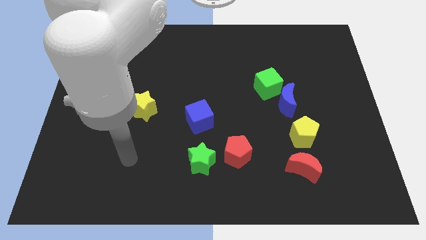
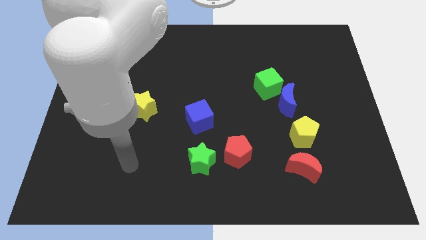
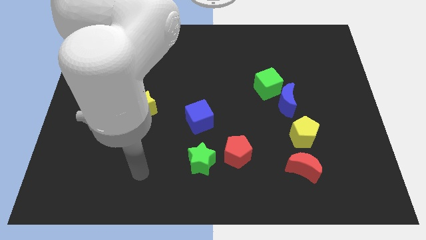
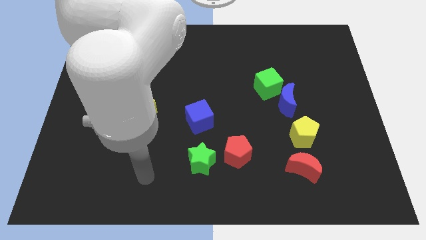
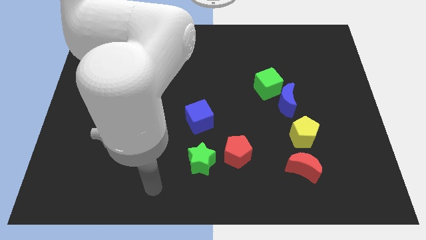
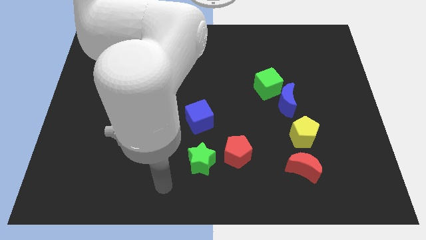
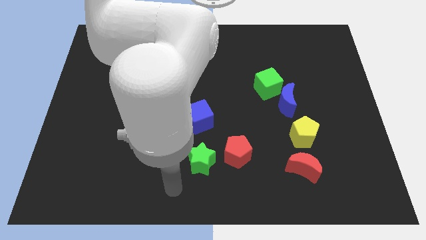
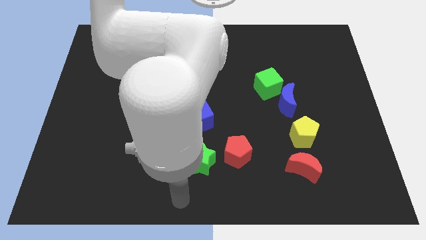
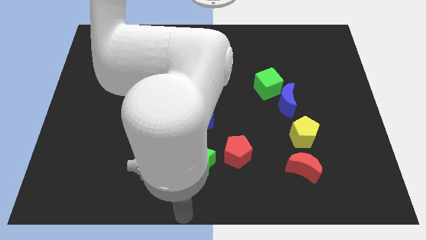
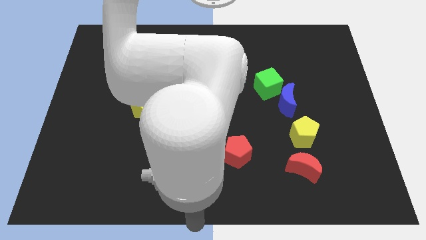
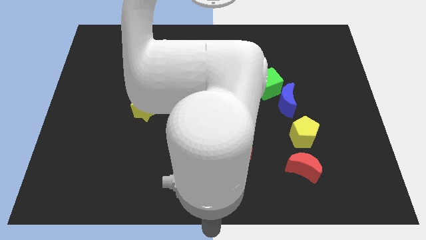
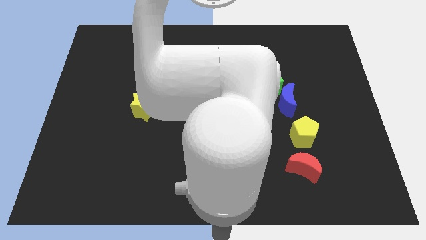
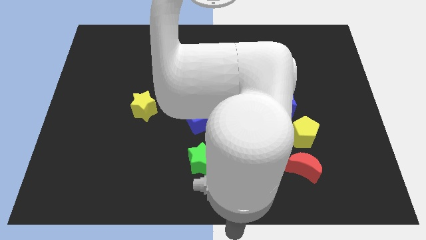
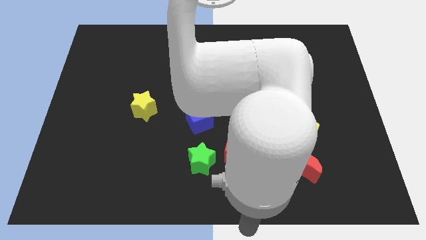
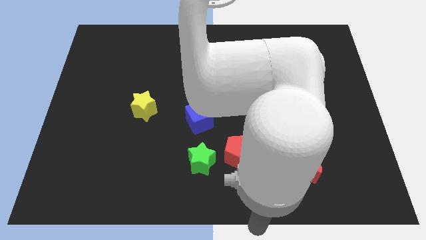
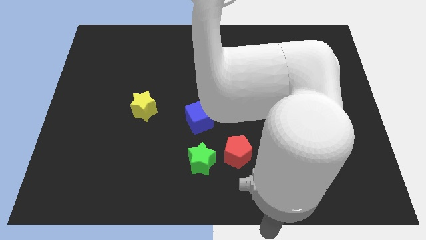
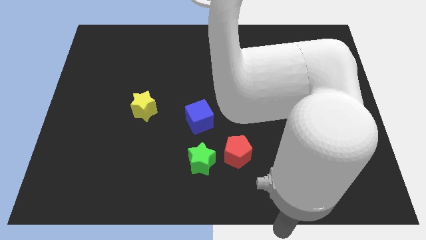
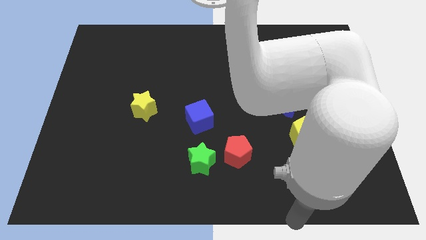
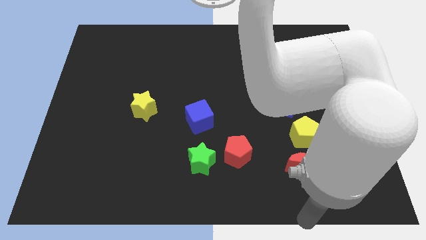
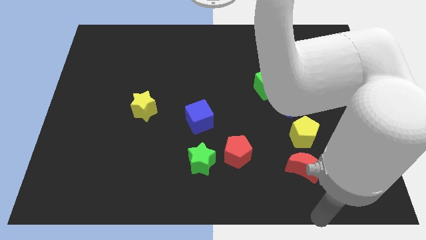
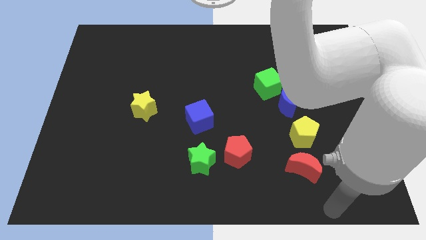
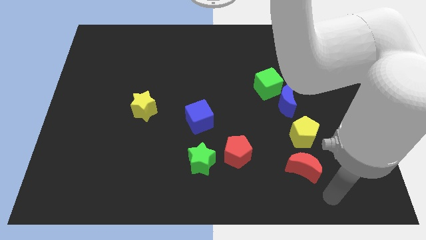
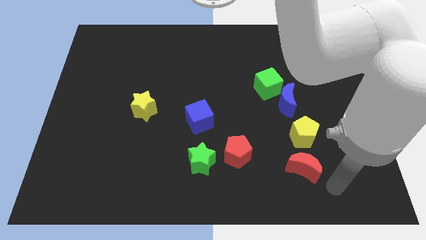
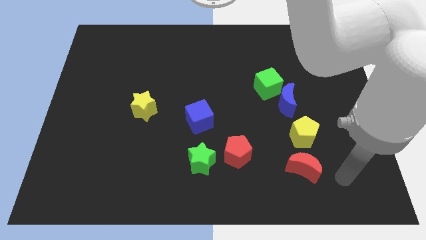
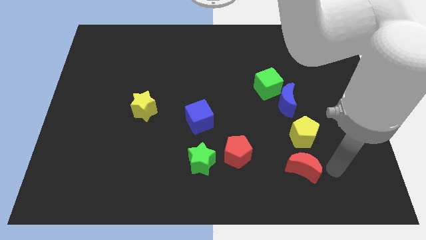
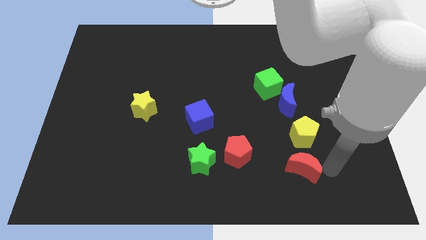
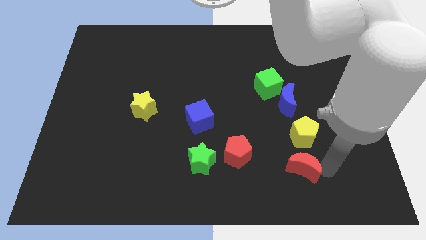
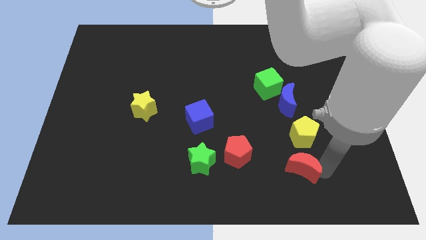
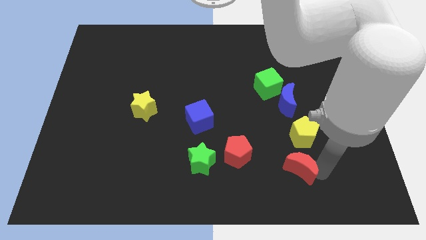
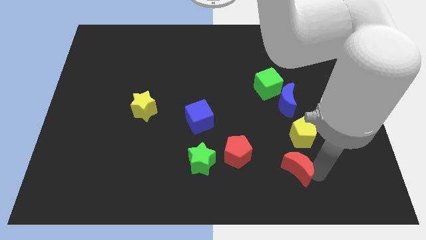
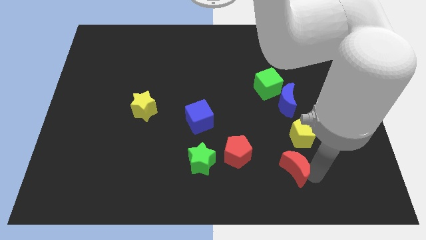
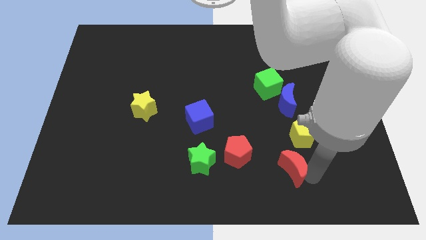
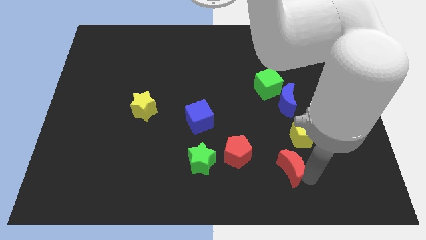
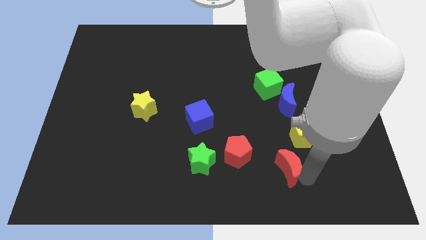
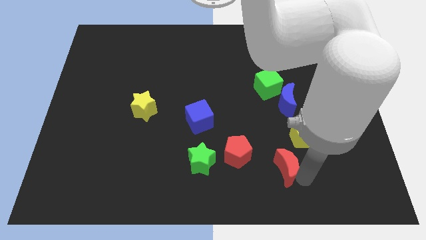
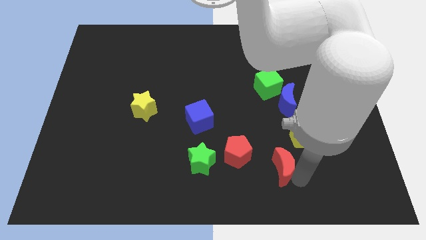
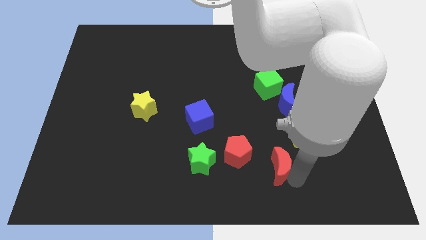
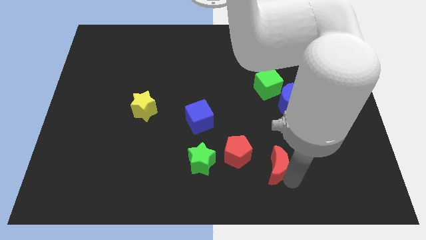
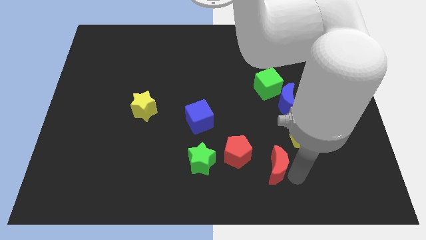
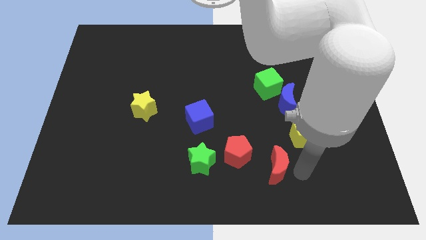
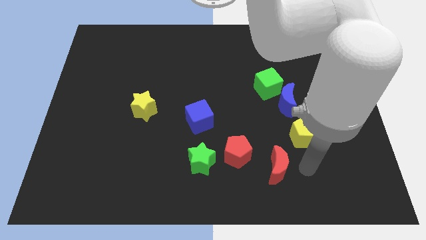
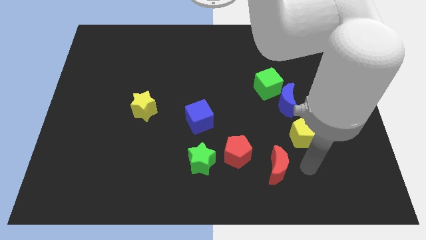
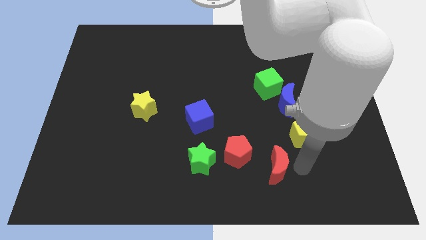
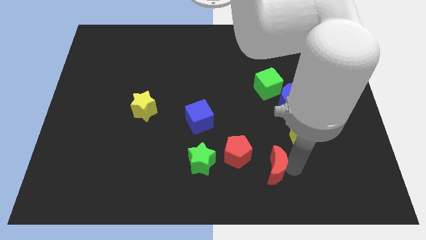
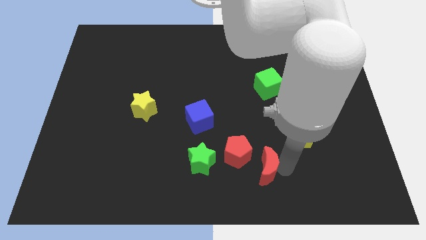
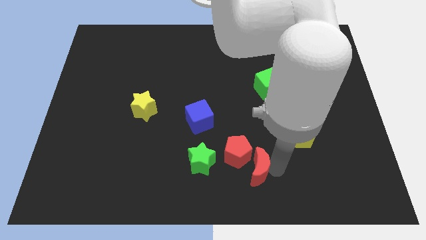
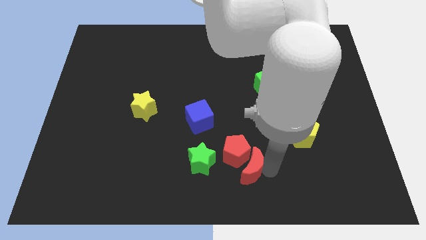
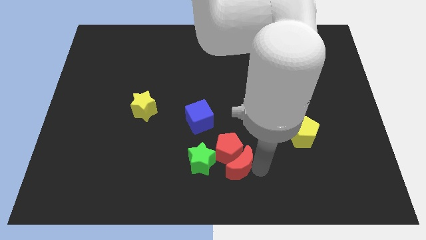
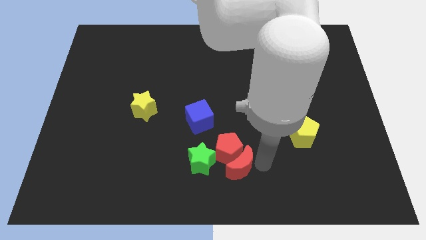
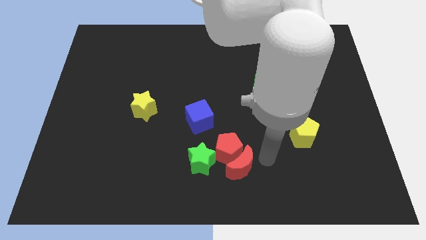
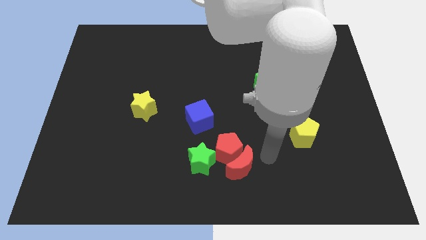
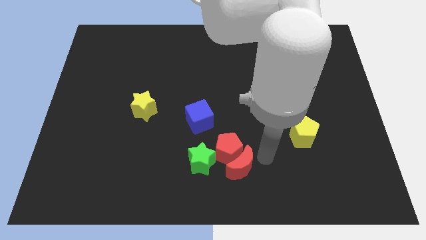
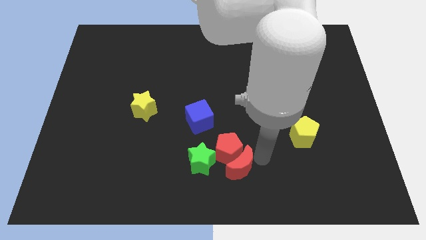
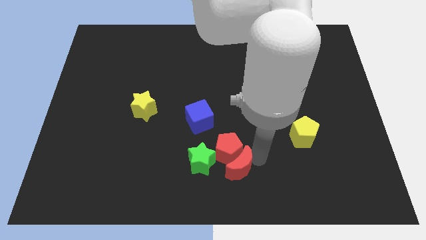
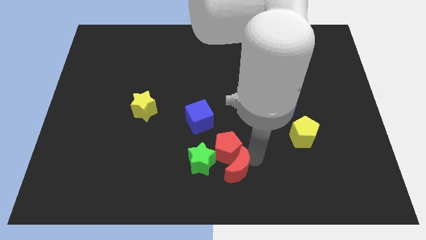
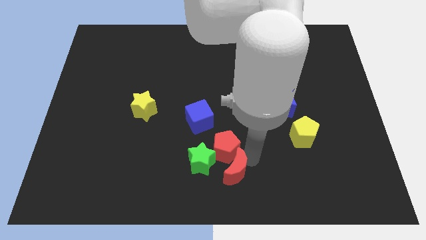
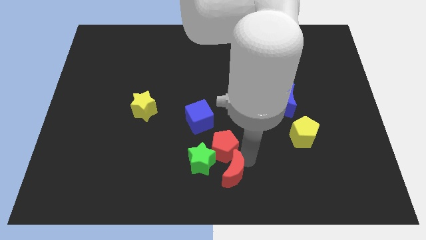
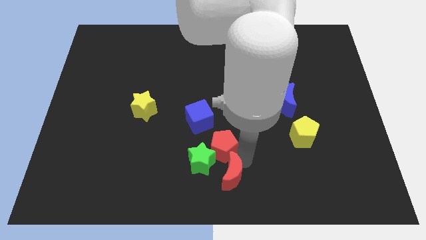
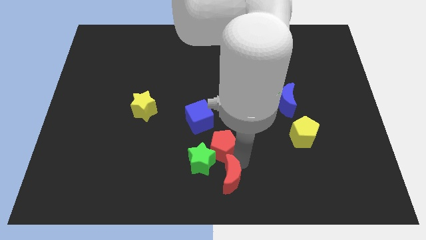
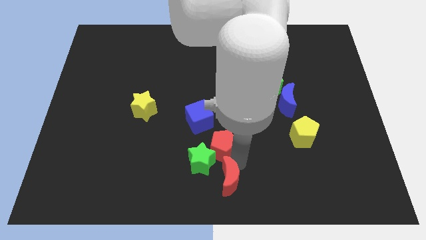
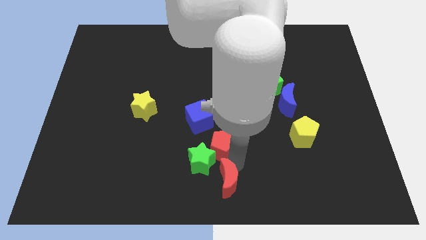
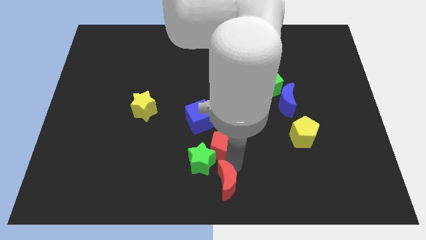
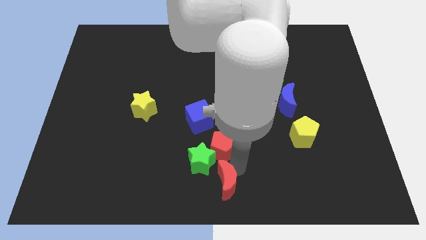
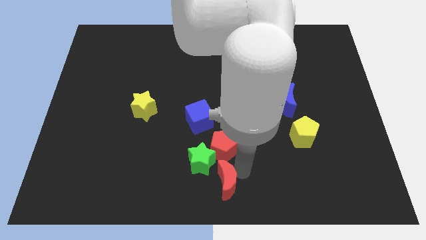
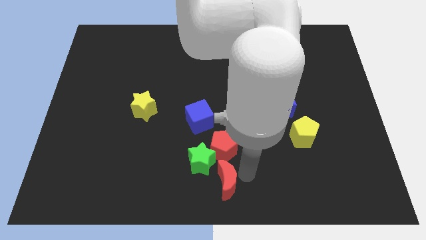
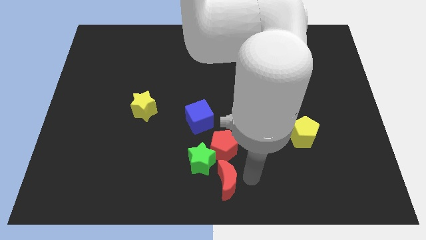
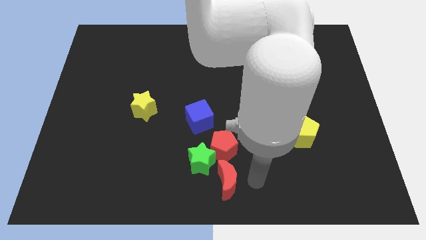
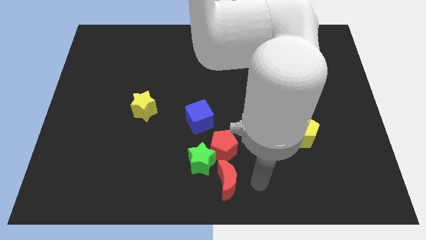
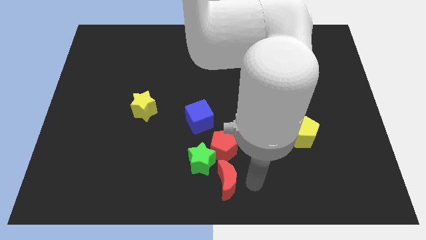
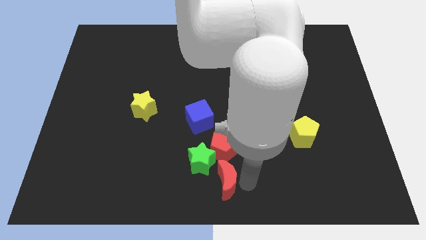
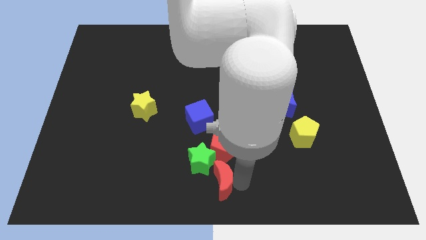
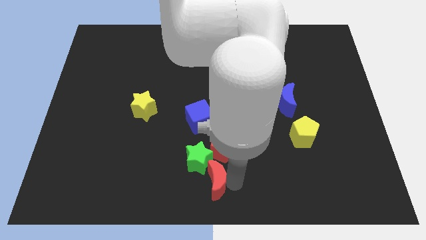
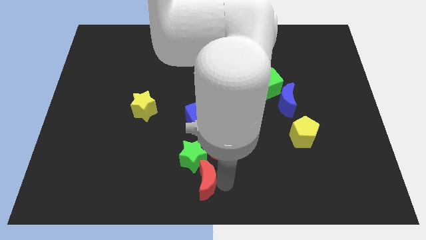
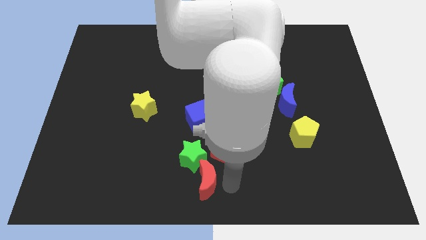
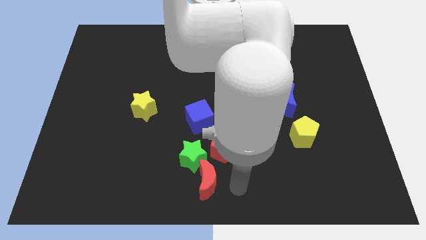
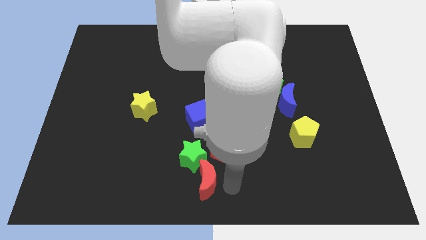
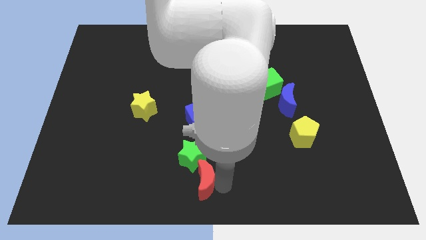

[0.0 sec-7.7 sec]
move the red moon left

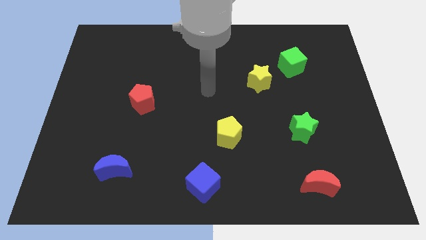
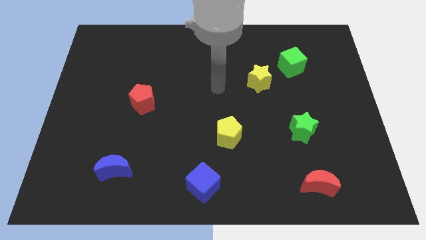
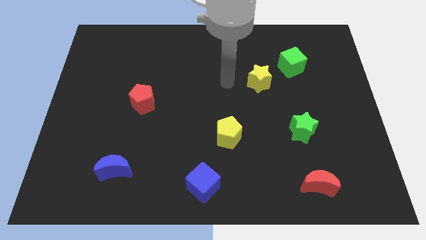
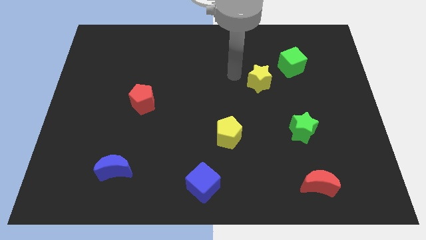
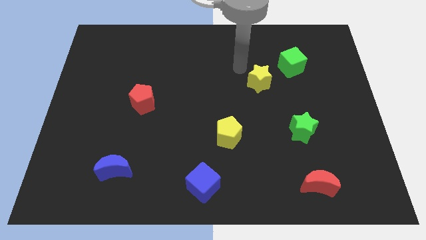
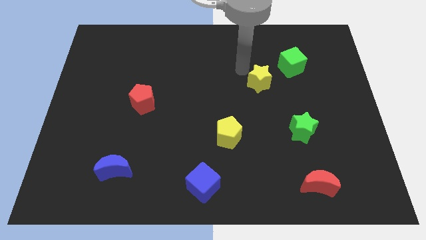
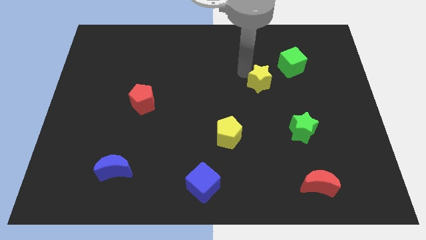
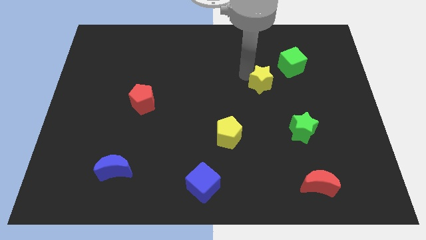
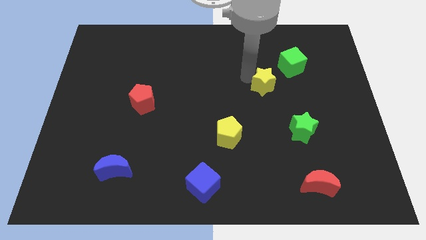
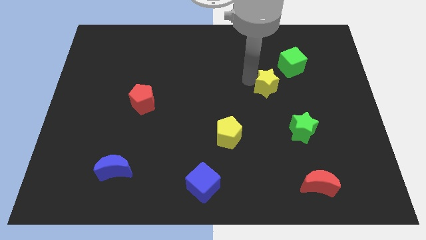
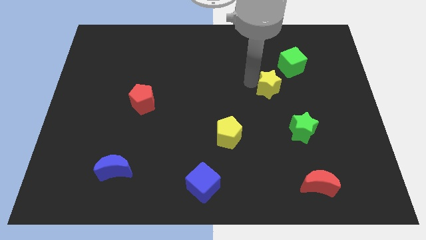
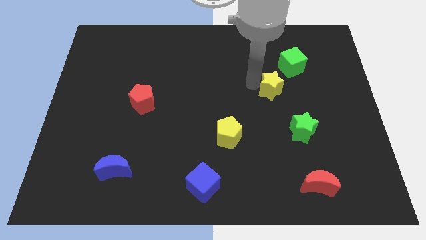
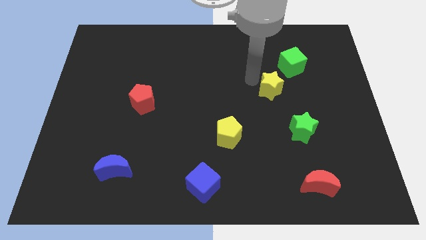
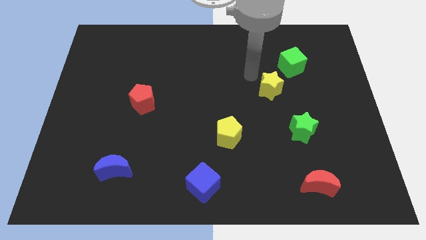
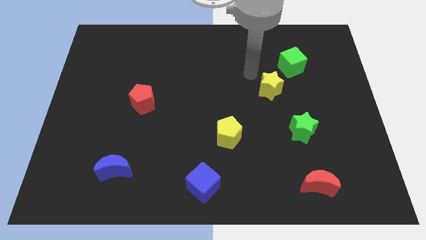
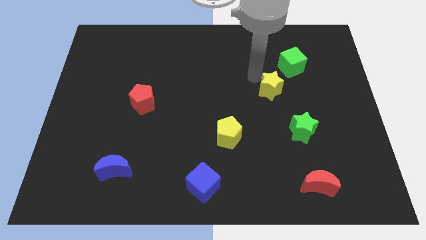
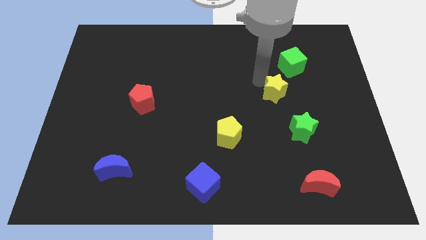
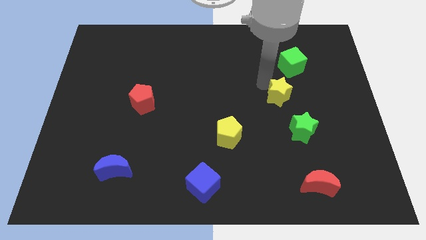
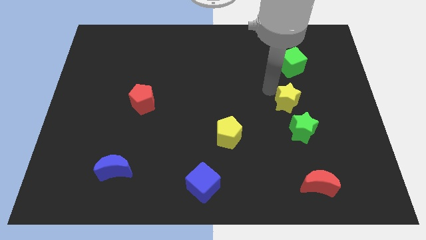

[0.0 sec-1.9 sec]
push the yellow star a little bit downwards and then to the right
